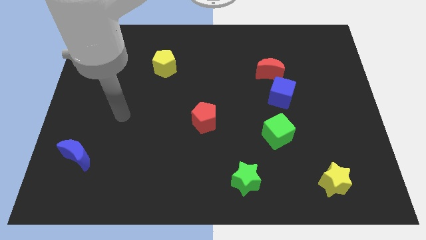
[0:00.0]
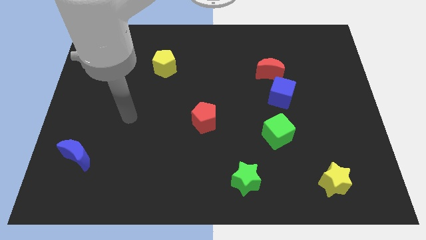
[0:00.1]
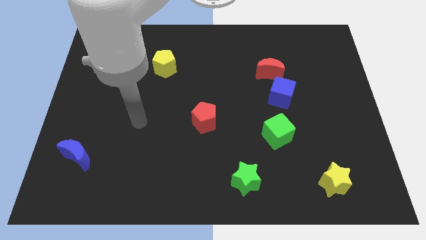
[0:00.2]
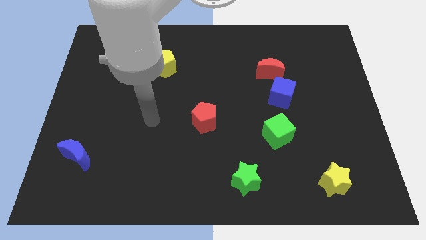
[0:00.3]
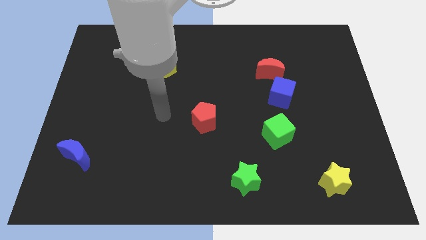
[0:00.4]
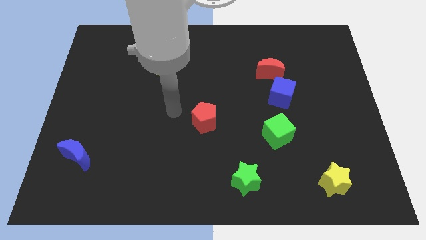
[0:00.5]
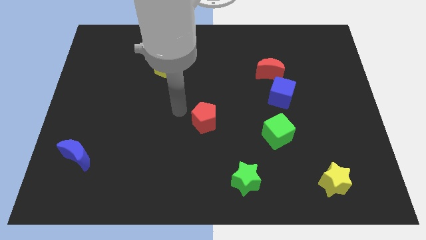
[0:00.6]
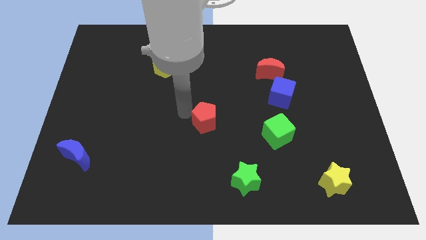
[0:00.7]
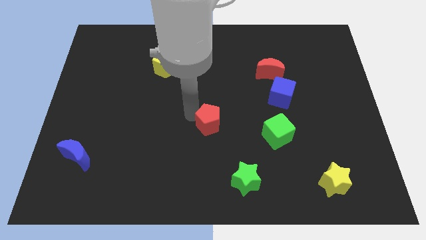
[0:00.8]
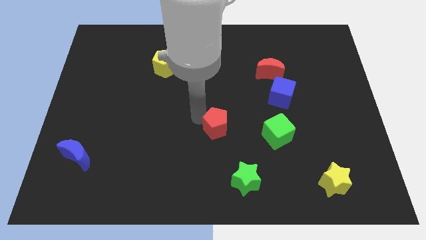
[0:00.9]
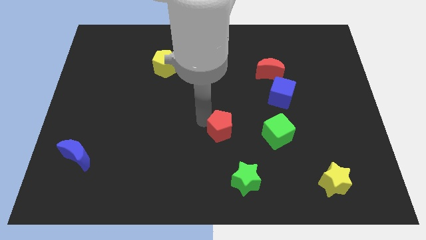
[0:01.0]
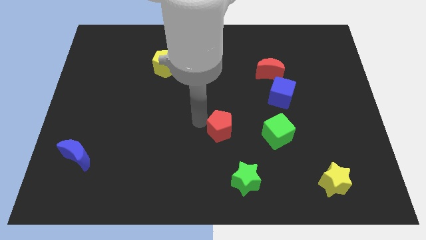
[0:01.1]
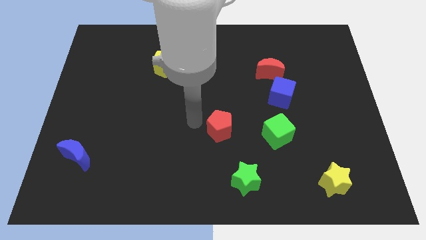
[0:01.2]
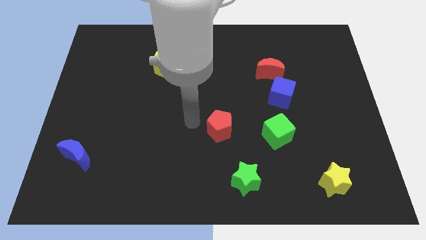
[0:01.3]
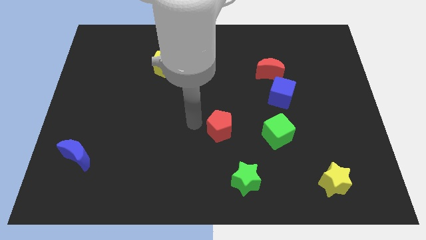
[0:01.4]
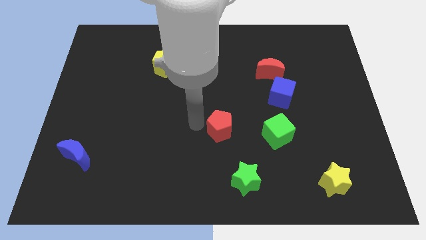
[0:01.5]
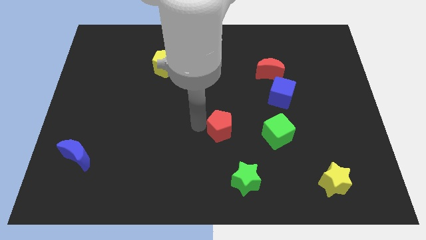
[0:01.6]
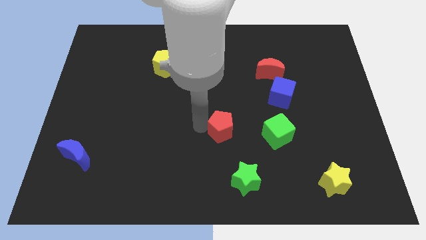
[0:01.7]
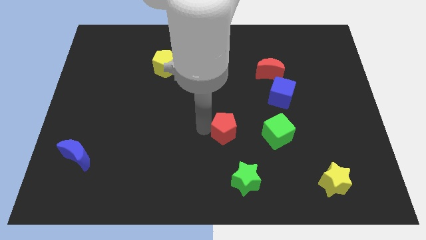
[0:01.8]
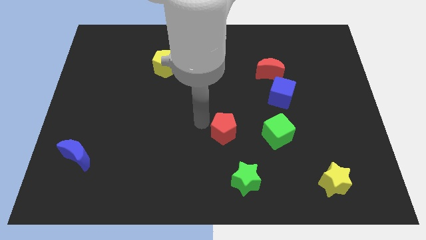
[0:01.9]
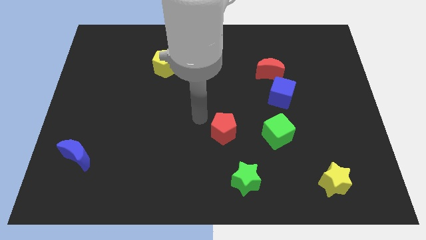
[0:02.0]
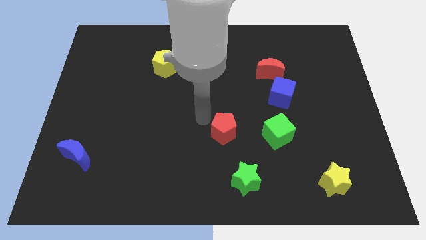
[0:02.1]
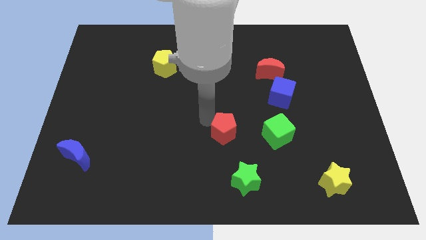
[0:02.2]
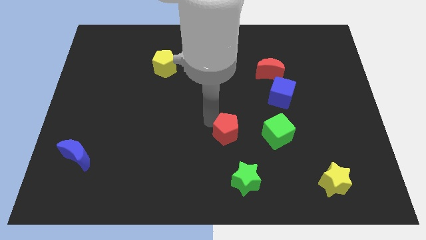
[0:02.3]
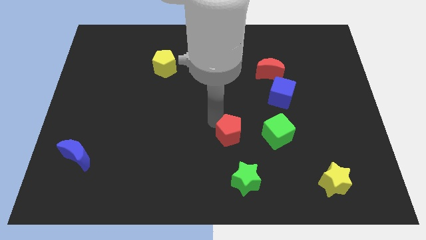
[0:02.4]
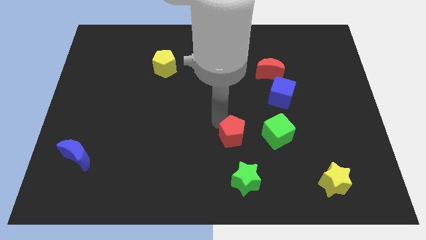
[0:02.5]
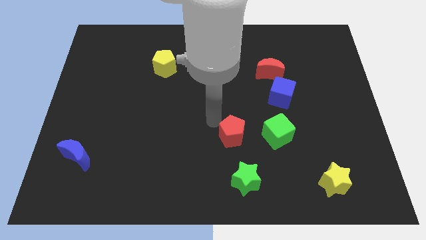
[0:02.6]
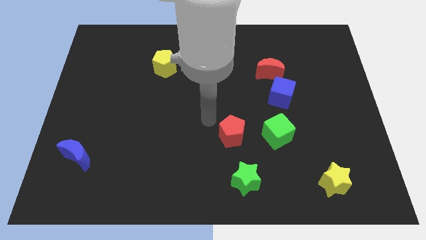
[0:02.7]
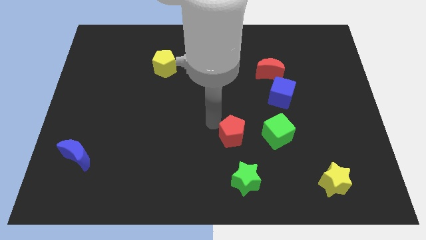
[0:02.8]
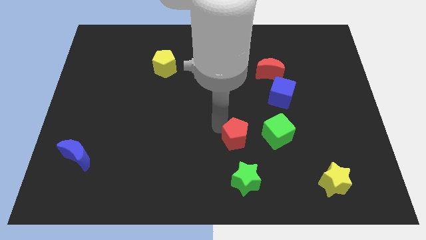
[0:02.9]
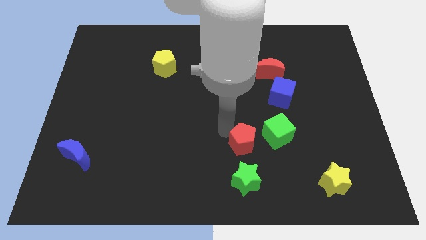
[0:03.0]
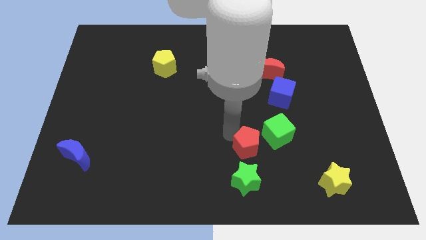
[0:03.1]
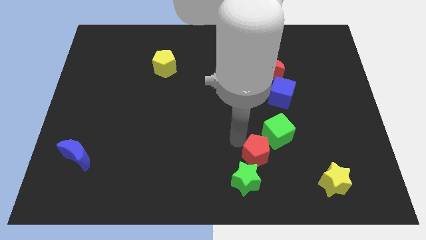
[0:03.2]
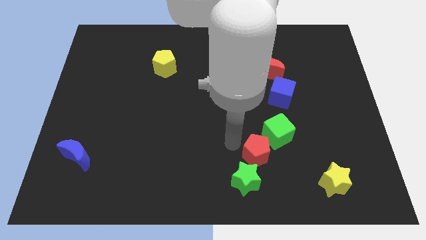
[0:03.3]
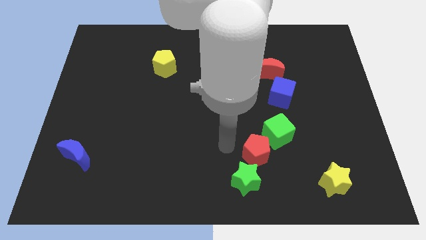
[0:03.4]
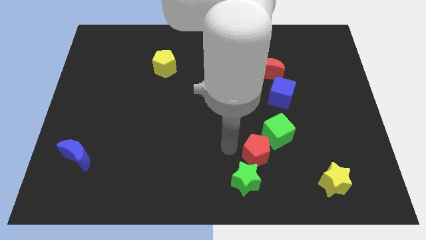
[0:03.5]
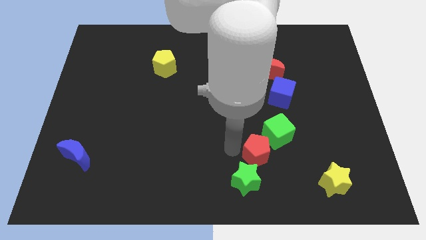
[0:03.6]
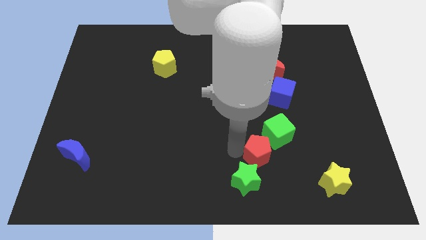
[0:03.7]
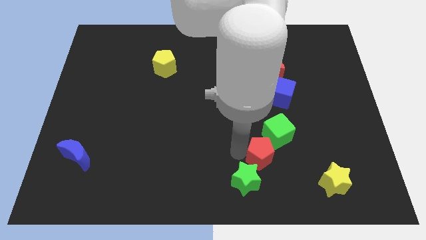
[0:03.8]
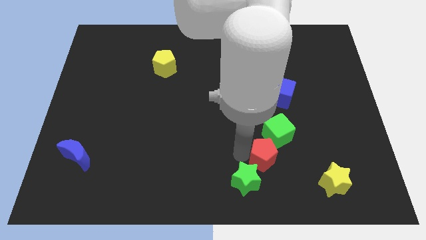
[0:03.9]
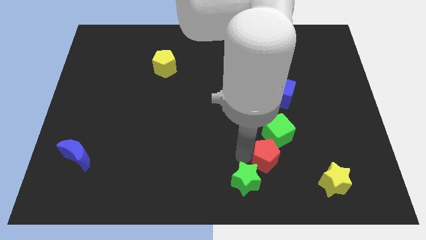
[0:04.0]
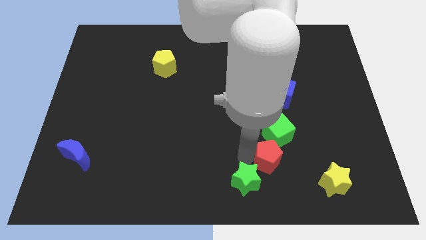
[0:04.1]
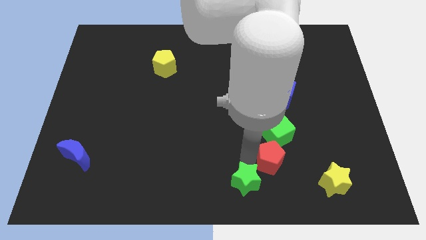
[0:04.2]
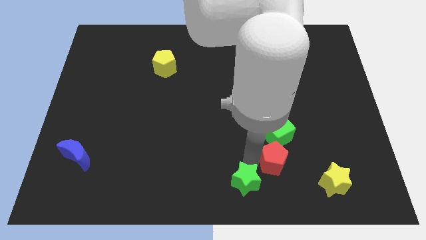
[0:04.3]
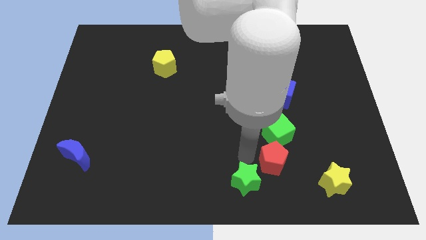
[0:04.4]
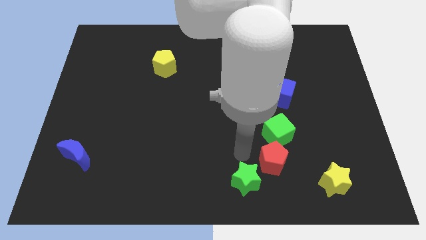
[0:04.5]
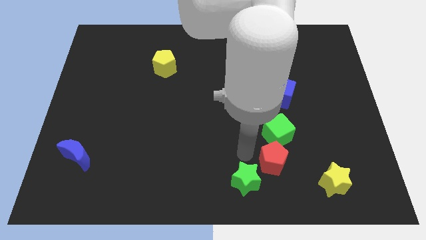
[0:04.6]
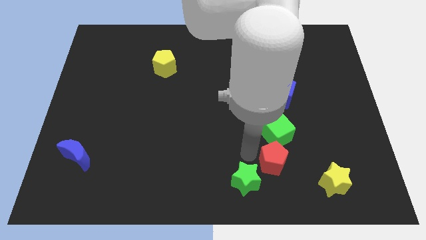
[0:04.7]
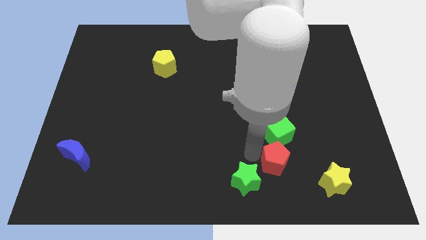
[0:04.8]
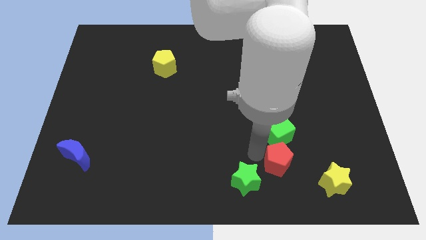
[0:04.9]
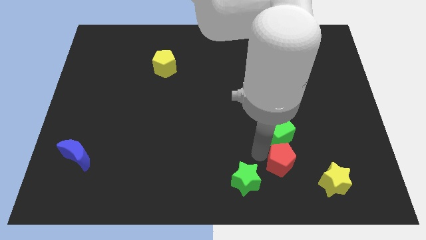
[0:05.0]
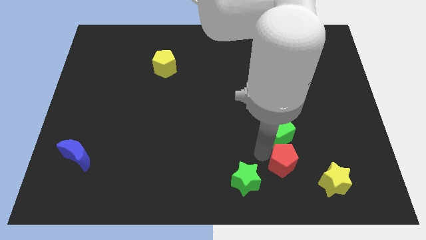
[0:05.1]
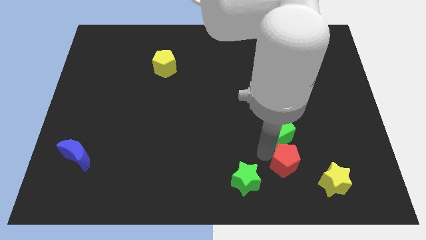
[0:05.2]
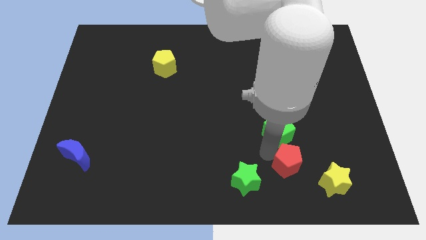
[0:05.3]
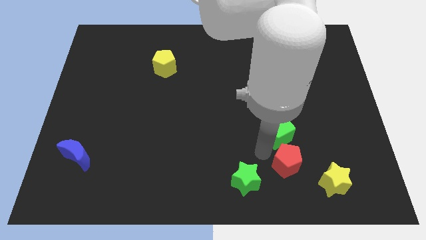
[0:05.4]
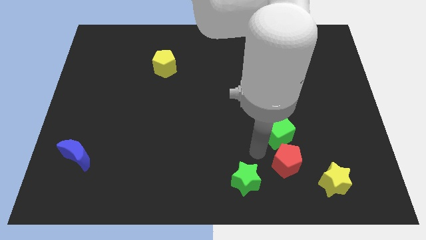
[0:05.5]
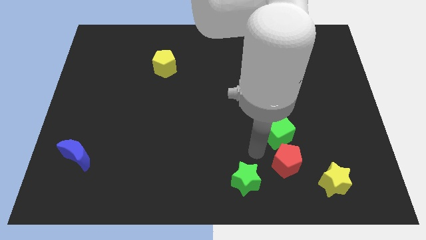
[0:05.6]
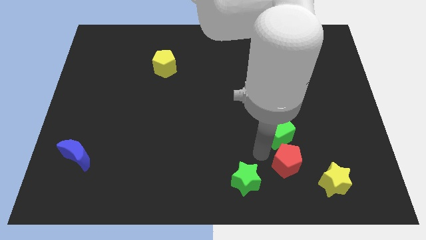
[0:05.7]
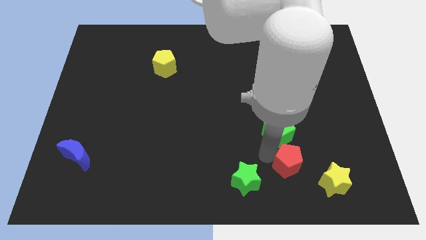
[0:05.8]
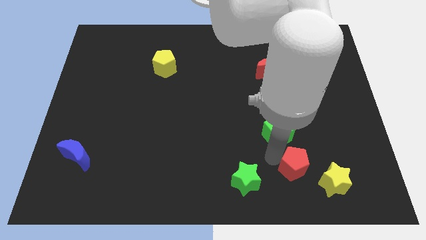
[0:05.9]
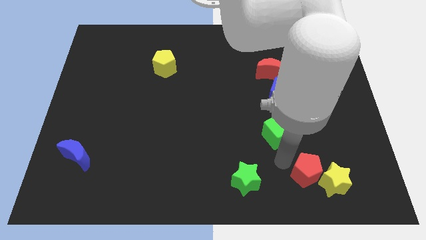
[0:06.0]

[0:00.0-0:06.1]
push the red pentagon to the yellow star

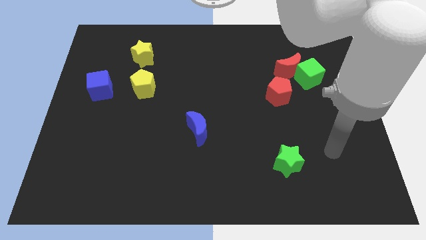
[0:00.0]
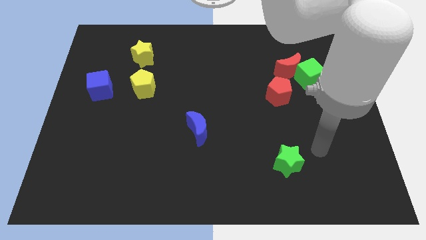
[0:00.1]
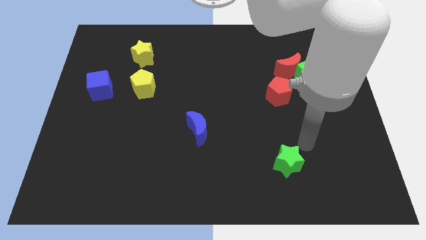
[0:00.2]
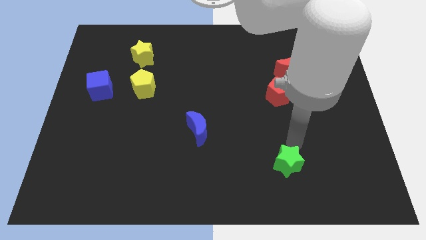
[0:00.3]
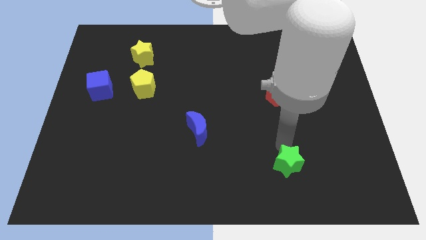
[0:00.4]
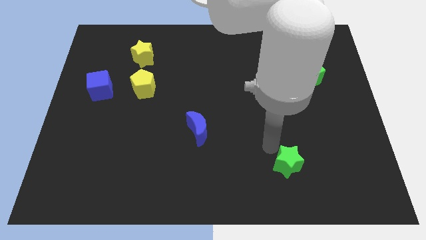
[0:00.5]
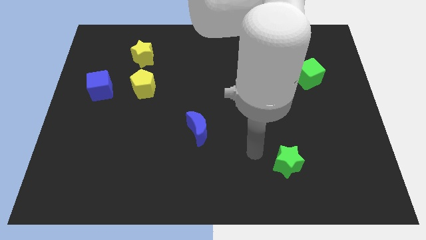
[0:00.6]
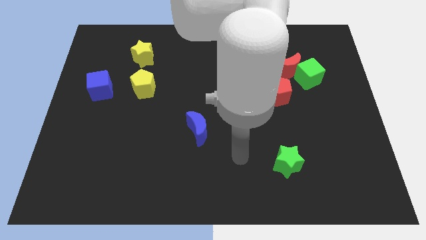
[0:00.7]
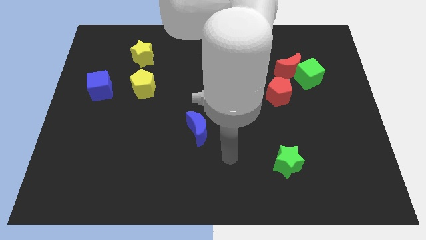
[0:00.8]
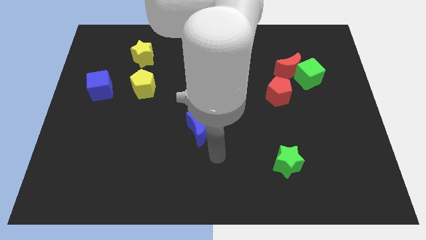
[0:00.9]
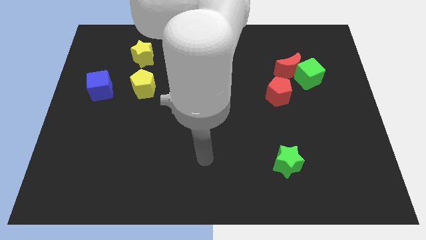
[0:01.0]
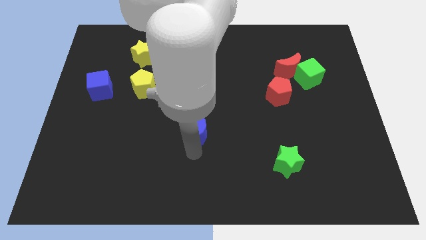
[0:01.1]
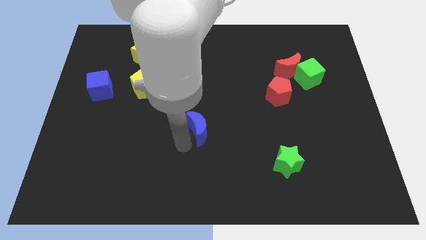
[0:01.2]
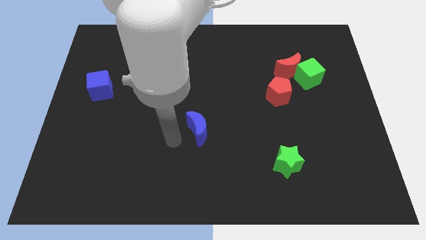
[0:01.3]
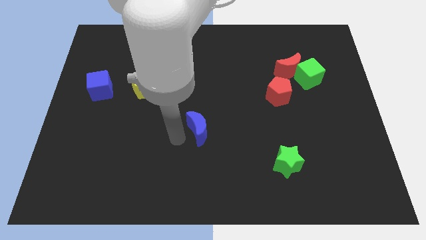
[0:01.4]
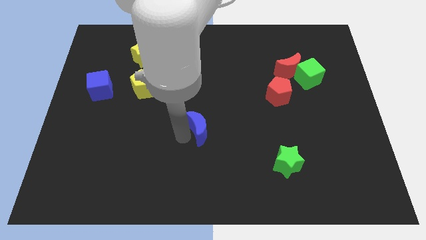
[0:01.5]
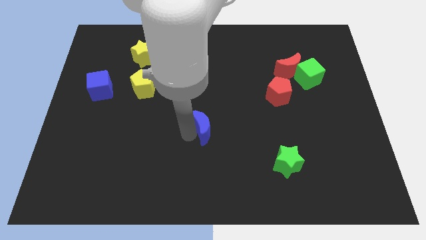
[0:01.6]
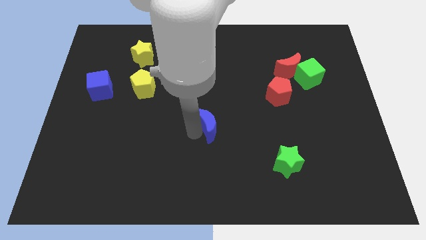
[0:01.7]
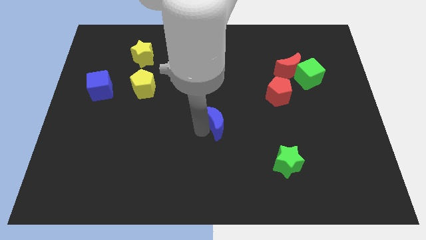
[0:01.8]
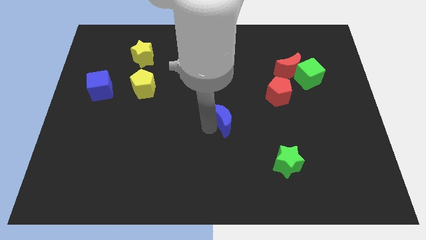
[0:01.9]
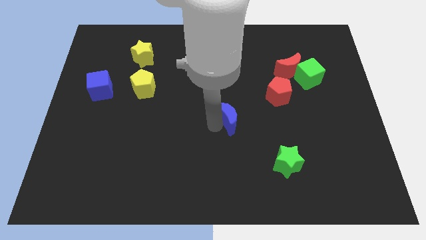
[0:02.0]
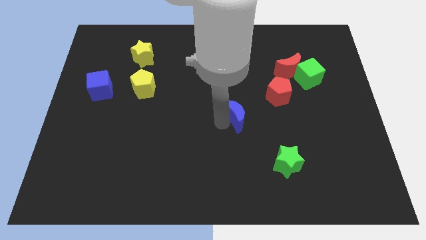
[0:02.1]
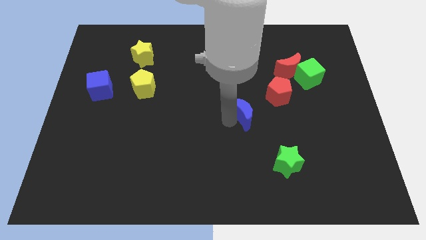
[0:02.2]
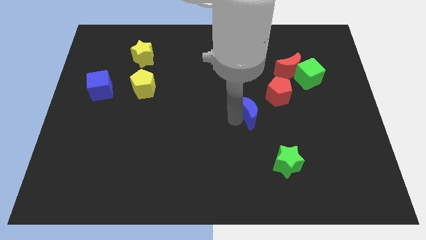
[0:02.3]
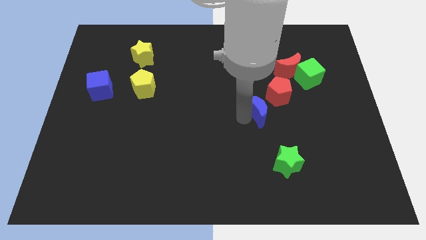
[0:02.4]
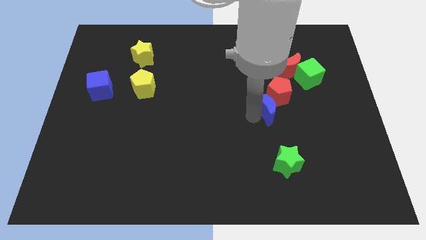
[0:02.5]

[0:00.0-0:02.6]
put the blue moon next to the red pentagon
